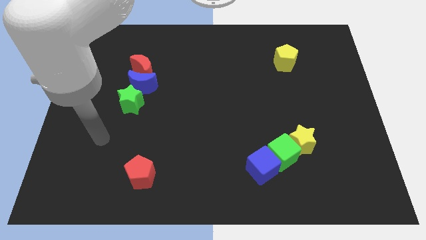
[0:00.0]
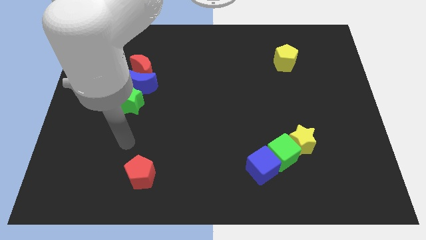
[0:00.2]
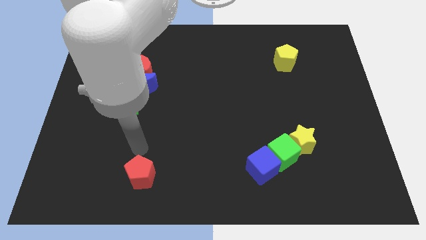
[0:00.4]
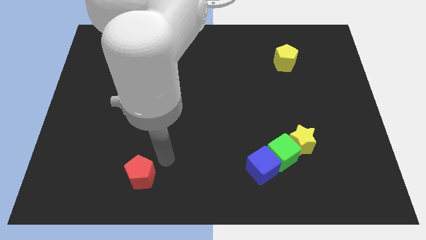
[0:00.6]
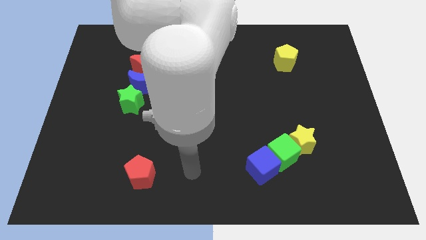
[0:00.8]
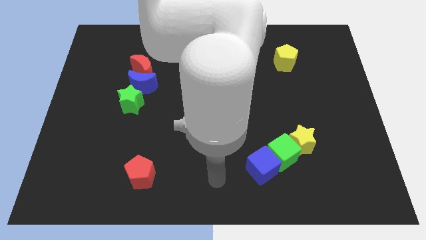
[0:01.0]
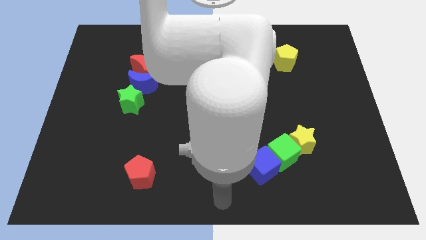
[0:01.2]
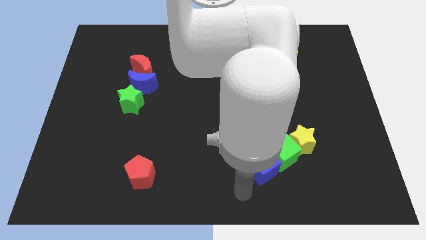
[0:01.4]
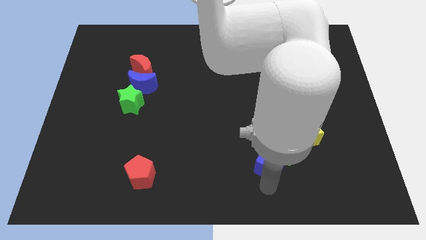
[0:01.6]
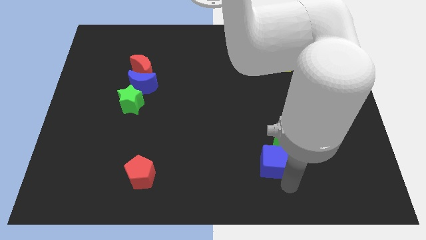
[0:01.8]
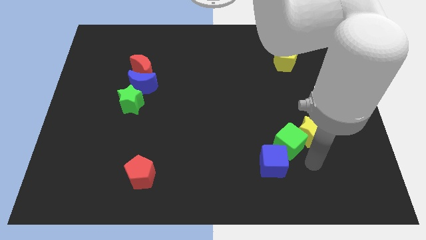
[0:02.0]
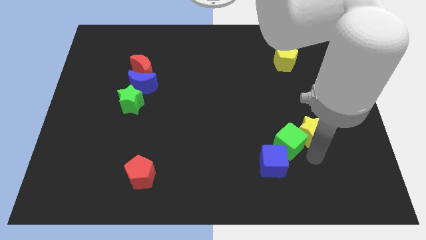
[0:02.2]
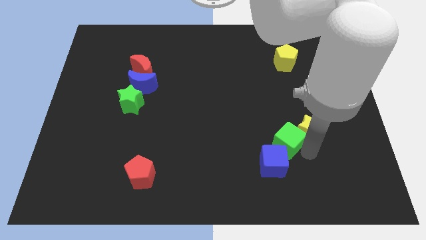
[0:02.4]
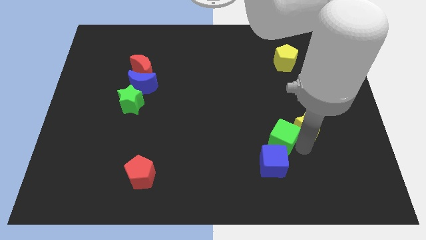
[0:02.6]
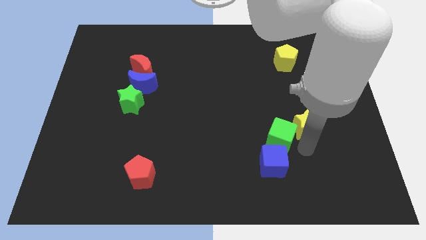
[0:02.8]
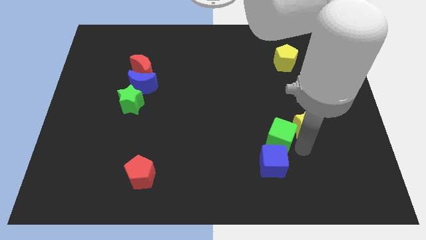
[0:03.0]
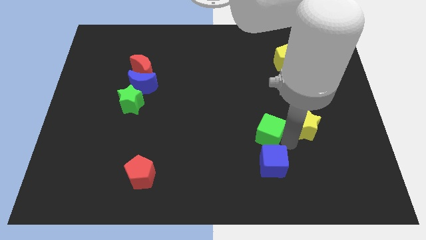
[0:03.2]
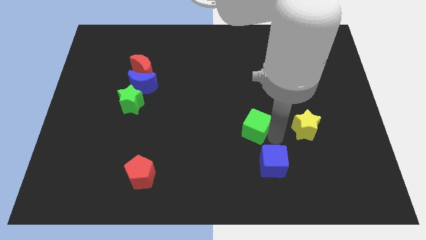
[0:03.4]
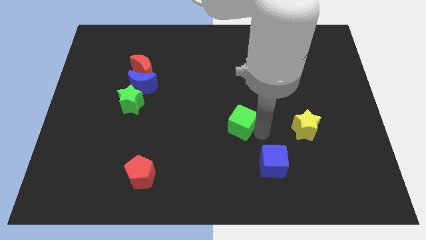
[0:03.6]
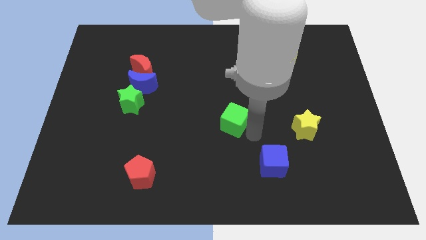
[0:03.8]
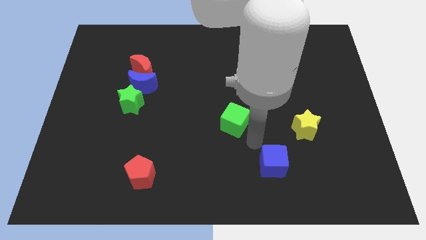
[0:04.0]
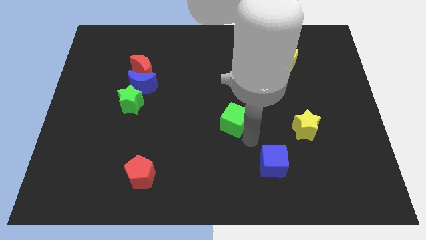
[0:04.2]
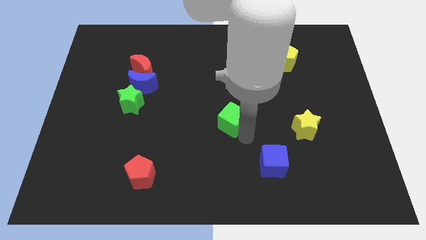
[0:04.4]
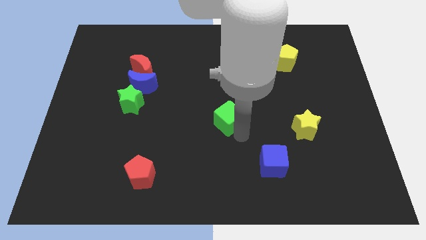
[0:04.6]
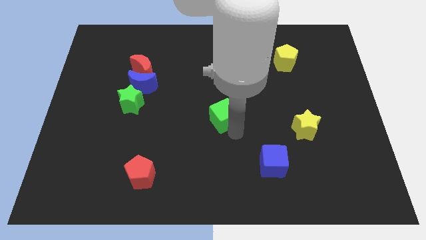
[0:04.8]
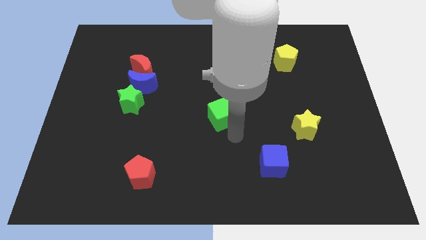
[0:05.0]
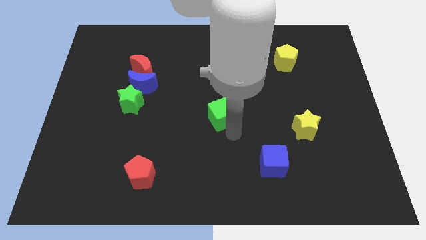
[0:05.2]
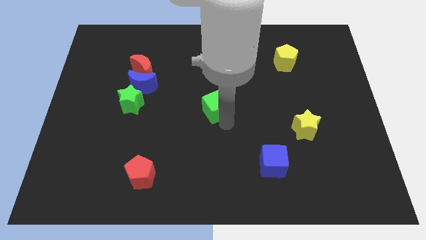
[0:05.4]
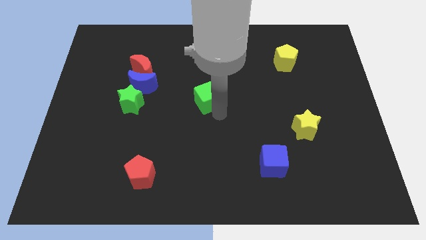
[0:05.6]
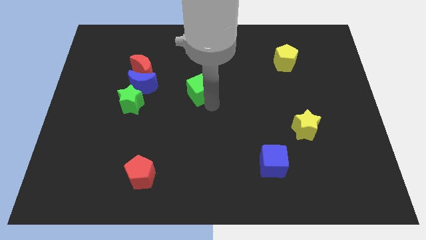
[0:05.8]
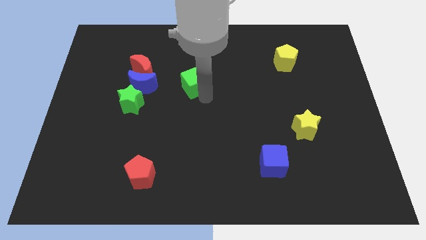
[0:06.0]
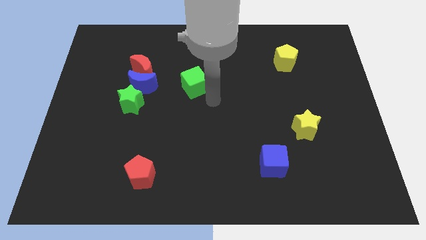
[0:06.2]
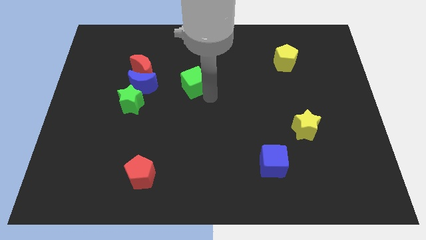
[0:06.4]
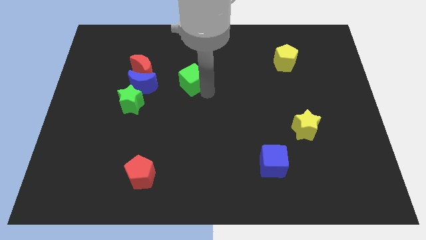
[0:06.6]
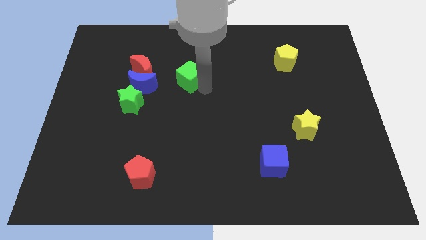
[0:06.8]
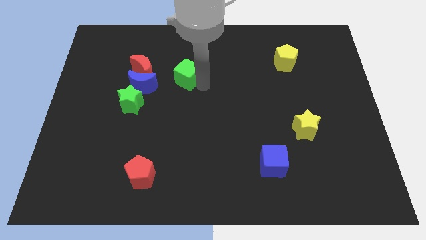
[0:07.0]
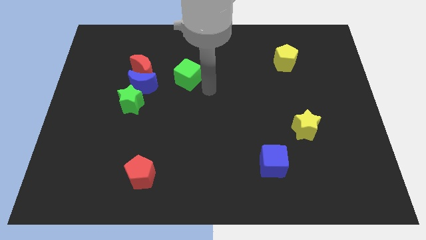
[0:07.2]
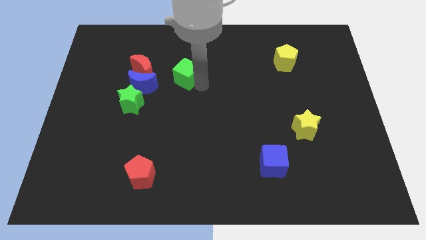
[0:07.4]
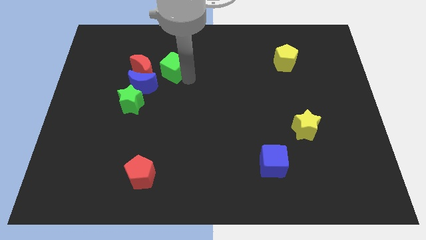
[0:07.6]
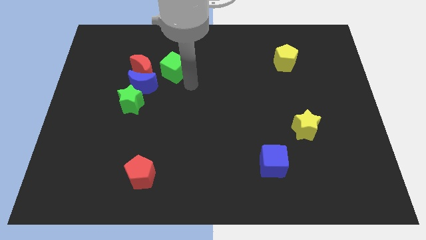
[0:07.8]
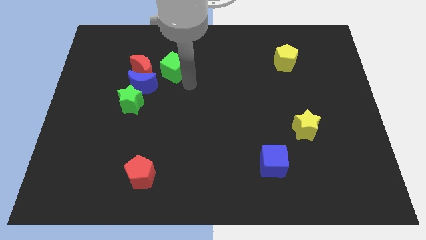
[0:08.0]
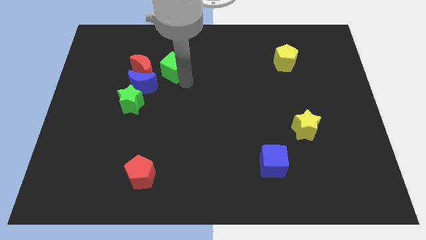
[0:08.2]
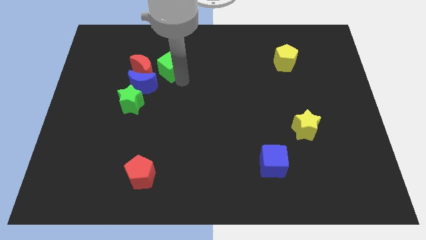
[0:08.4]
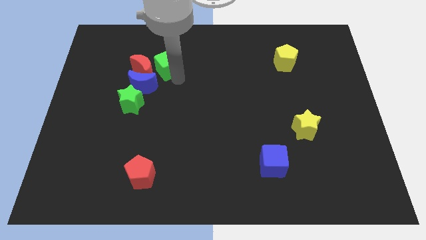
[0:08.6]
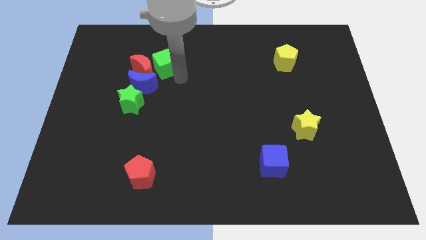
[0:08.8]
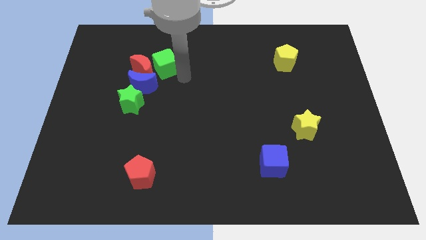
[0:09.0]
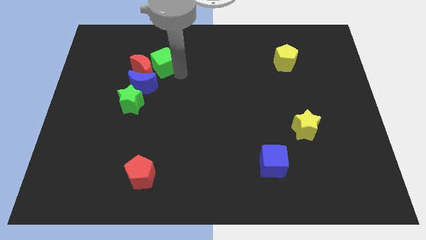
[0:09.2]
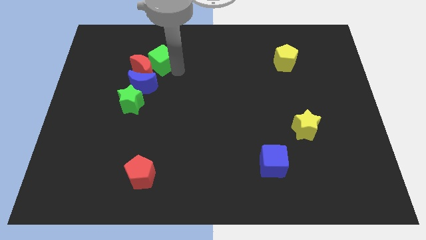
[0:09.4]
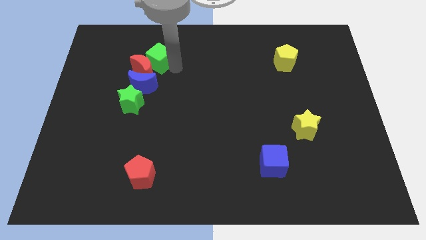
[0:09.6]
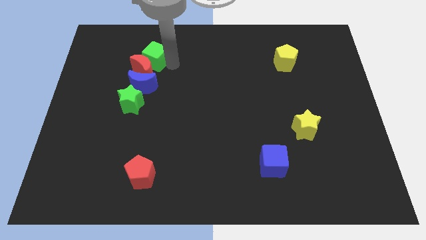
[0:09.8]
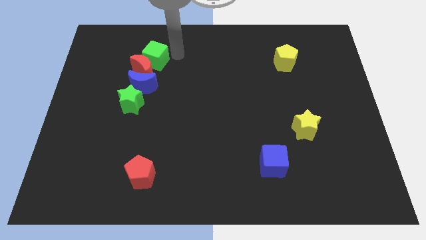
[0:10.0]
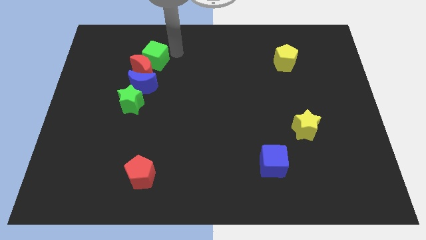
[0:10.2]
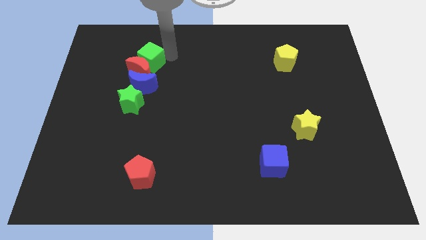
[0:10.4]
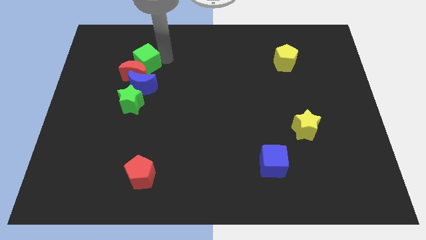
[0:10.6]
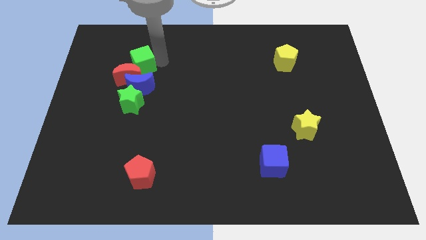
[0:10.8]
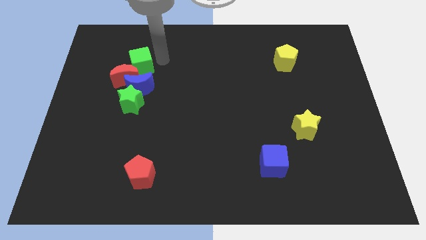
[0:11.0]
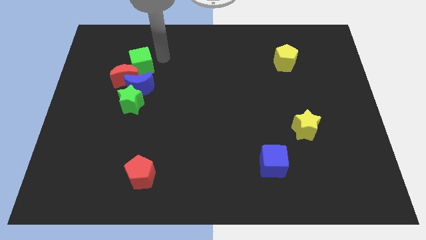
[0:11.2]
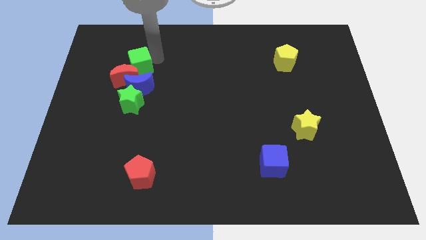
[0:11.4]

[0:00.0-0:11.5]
move the green cube to the top left of the blue moon

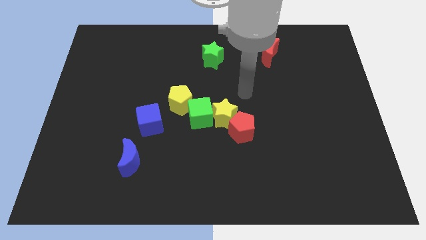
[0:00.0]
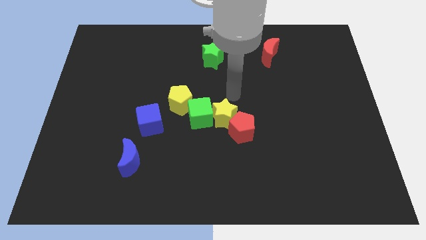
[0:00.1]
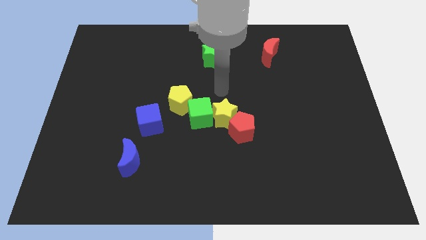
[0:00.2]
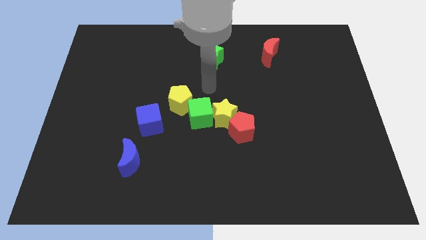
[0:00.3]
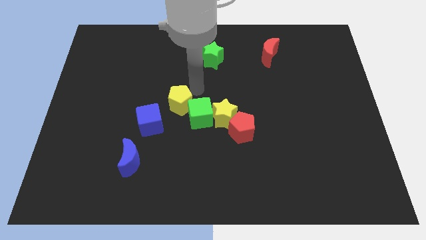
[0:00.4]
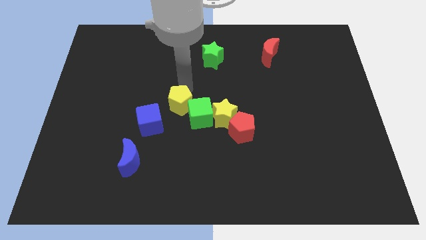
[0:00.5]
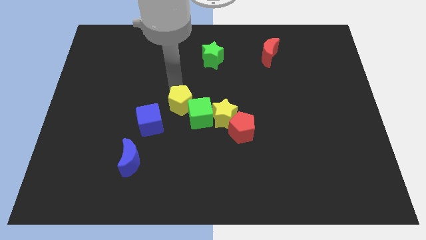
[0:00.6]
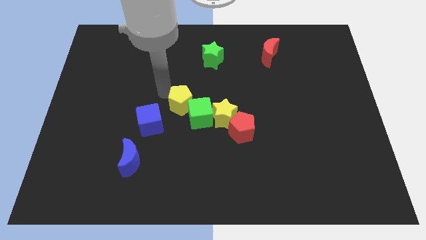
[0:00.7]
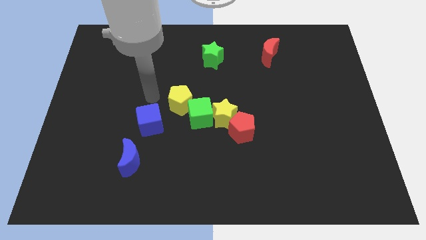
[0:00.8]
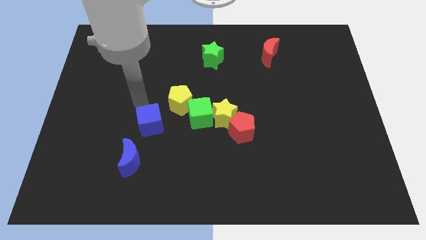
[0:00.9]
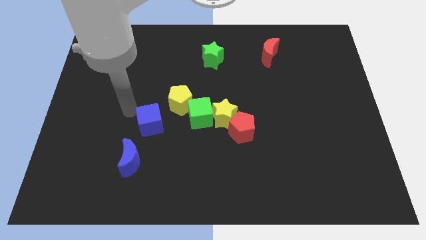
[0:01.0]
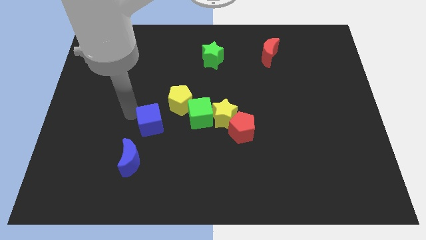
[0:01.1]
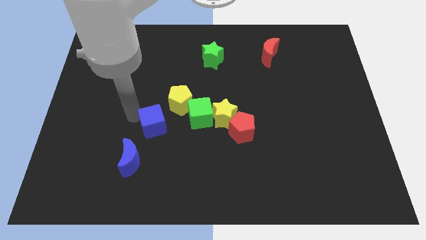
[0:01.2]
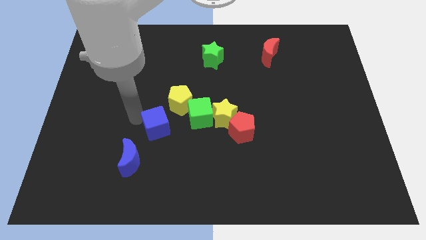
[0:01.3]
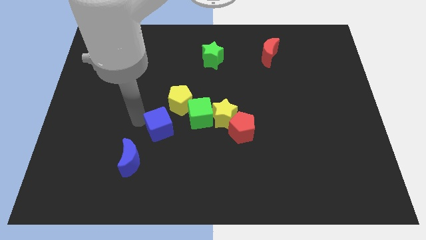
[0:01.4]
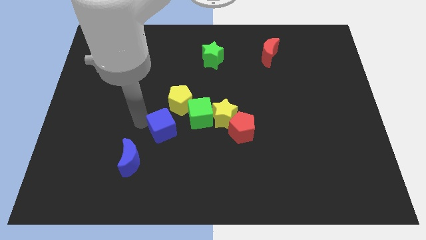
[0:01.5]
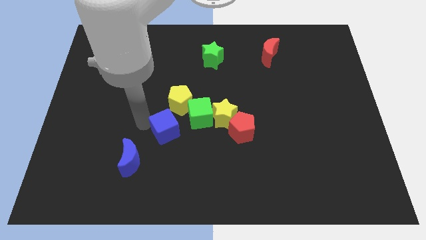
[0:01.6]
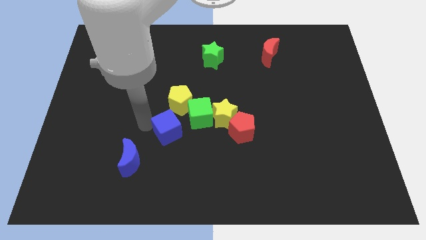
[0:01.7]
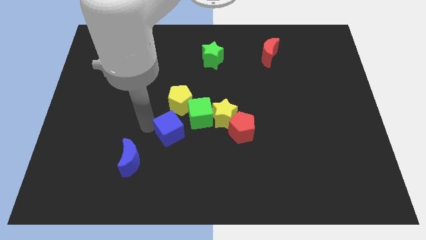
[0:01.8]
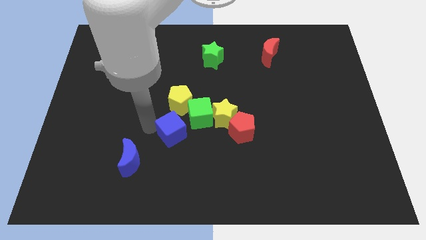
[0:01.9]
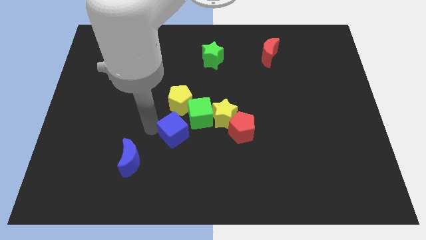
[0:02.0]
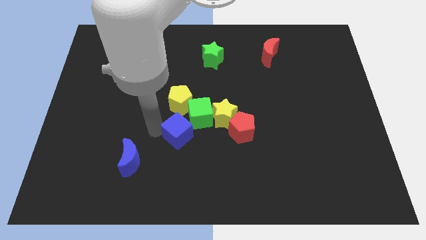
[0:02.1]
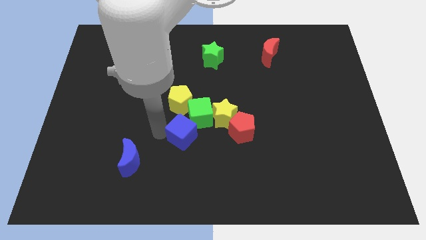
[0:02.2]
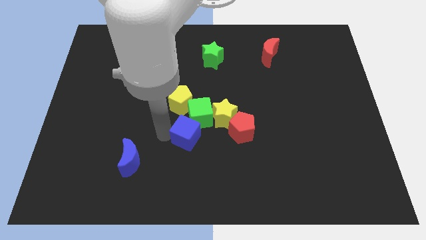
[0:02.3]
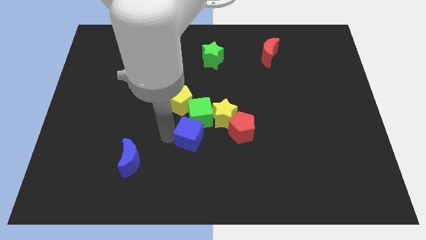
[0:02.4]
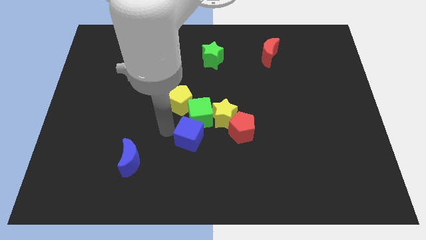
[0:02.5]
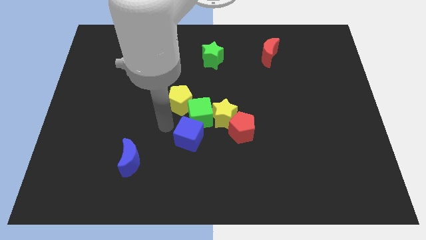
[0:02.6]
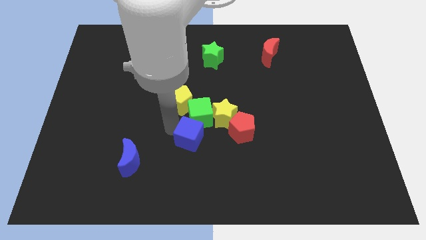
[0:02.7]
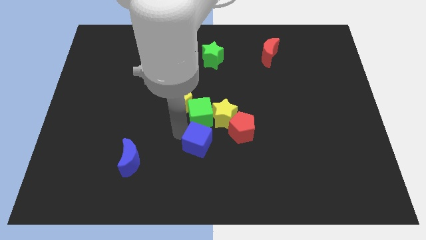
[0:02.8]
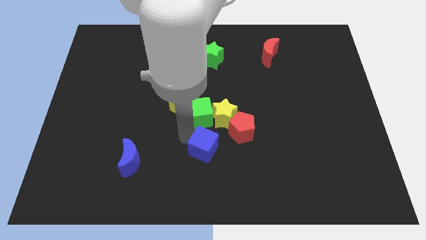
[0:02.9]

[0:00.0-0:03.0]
push the blue cube to the bottom side of the yellow star

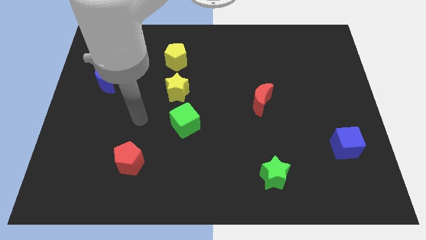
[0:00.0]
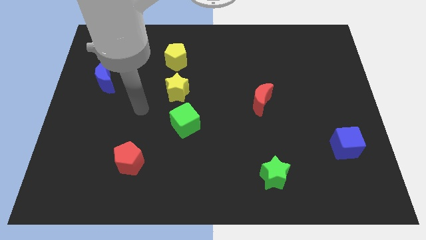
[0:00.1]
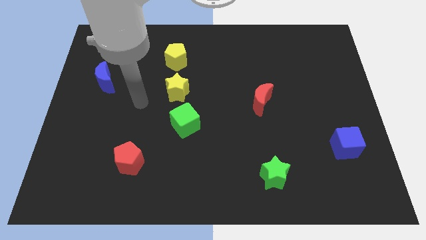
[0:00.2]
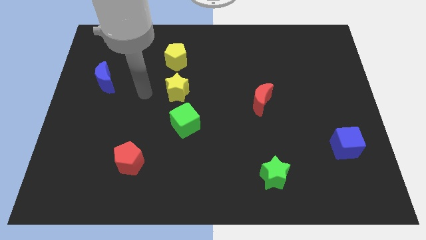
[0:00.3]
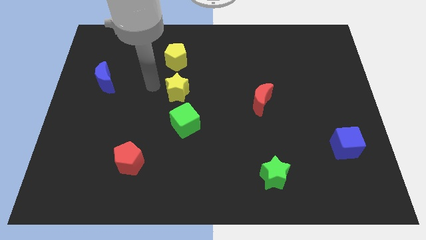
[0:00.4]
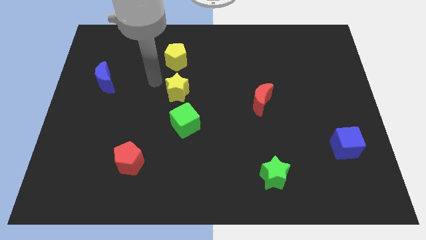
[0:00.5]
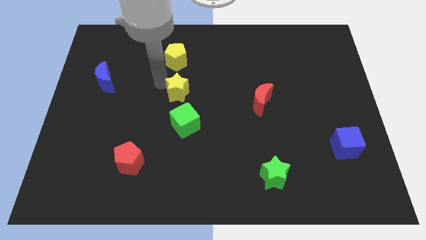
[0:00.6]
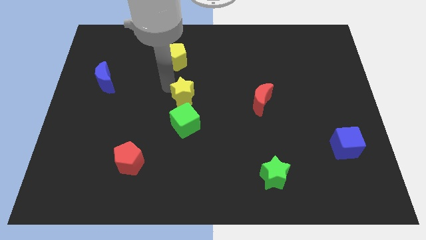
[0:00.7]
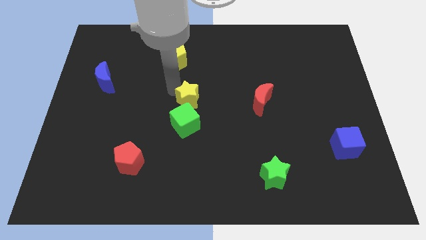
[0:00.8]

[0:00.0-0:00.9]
push the yellow star to the top right side of the green cube
